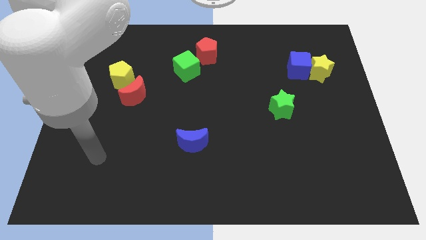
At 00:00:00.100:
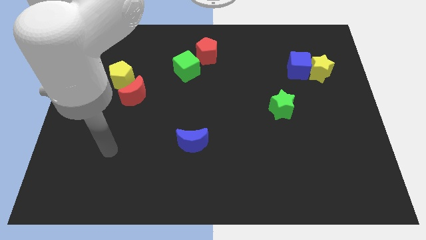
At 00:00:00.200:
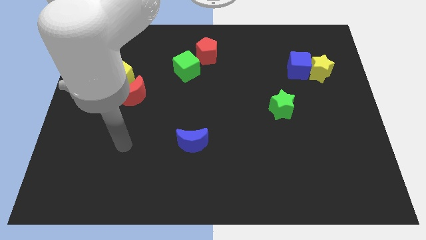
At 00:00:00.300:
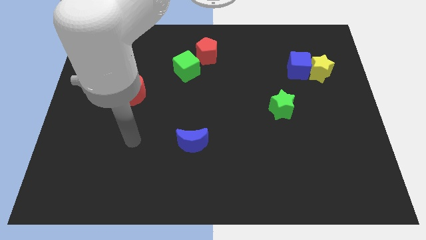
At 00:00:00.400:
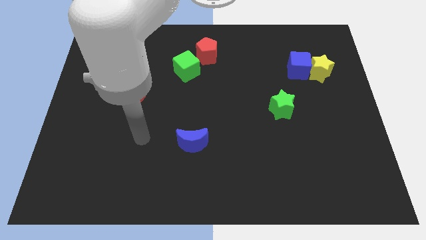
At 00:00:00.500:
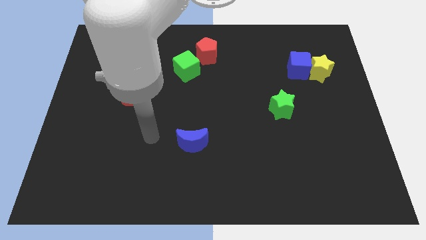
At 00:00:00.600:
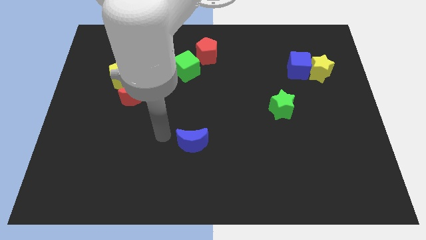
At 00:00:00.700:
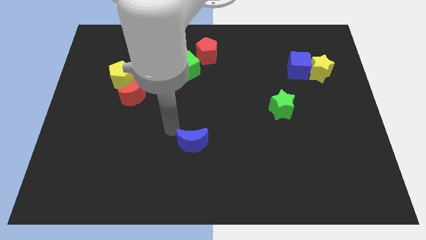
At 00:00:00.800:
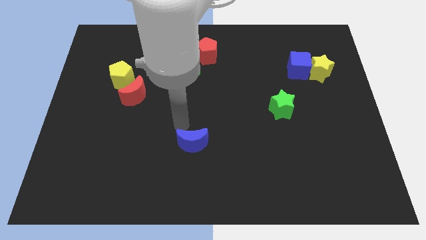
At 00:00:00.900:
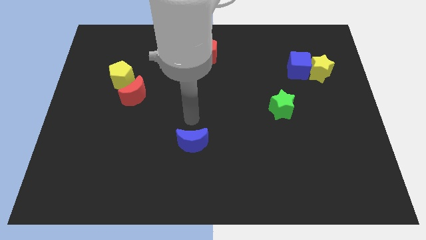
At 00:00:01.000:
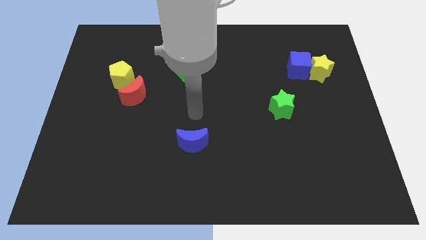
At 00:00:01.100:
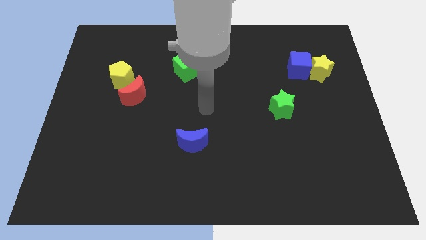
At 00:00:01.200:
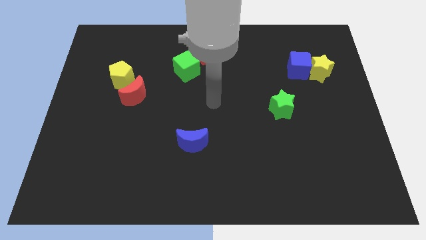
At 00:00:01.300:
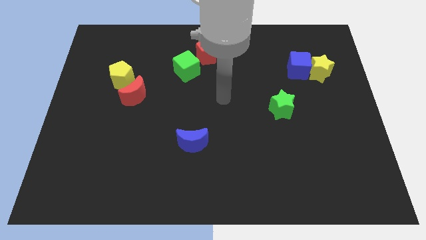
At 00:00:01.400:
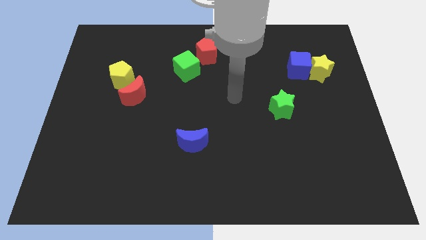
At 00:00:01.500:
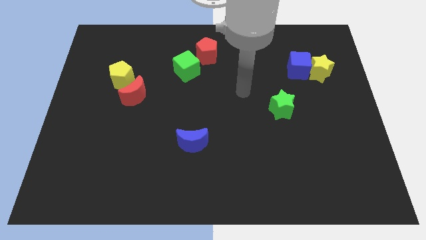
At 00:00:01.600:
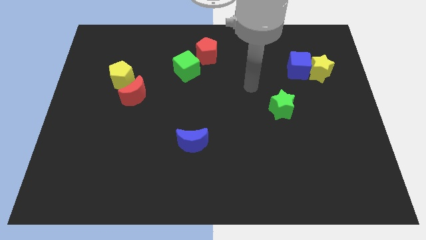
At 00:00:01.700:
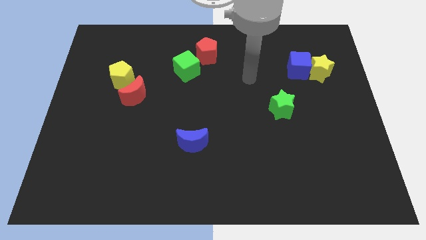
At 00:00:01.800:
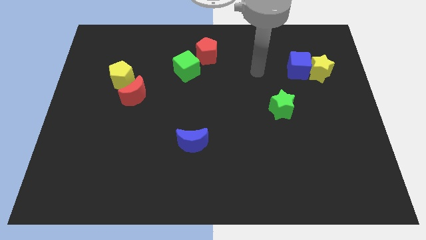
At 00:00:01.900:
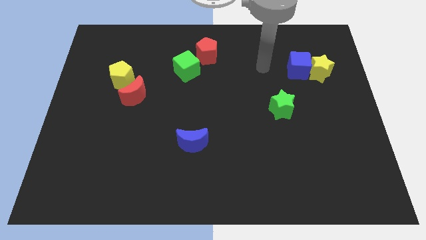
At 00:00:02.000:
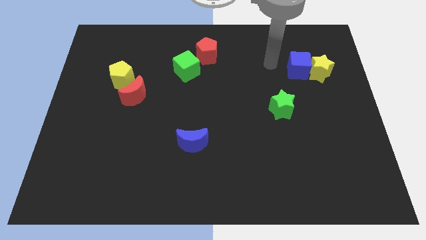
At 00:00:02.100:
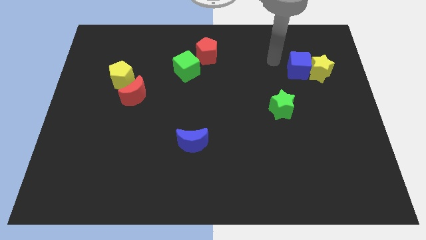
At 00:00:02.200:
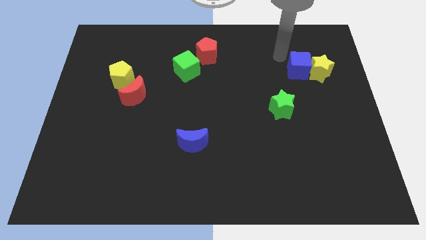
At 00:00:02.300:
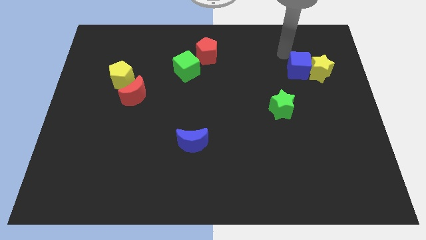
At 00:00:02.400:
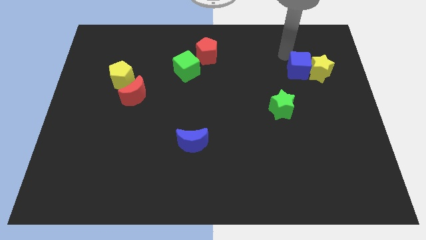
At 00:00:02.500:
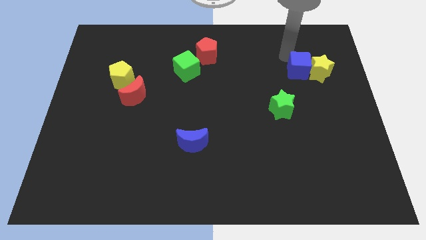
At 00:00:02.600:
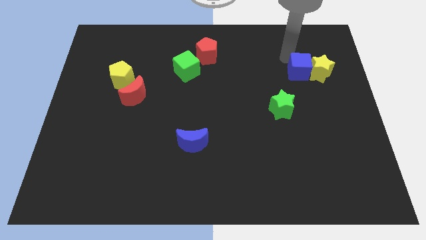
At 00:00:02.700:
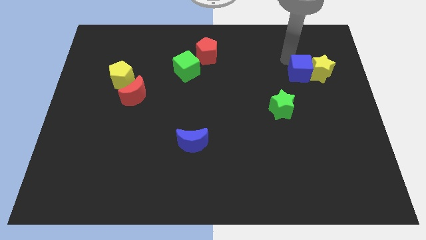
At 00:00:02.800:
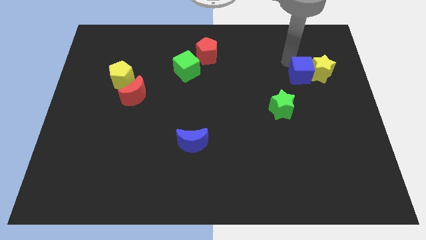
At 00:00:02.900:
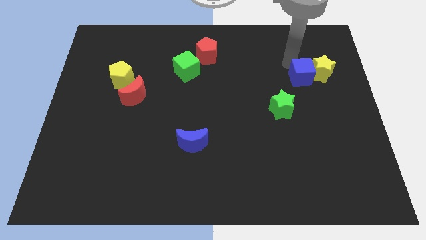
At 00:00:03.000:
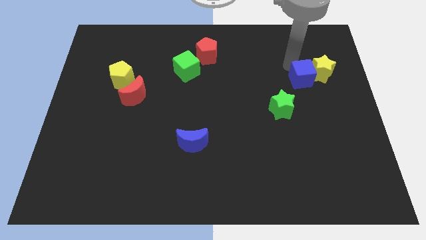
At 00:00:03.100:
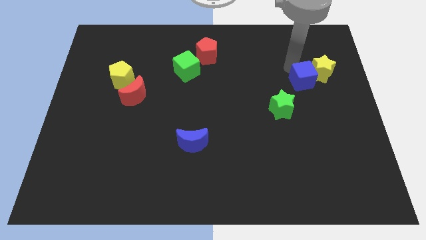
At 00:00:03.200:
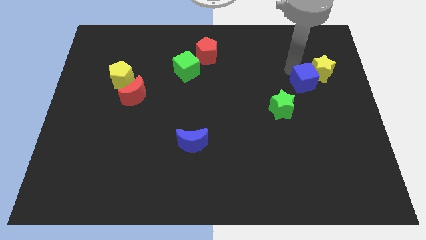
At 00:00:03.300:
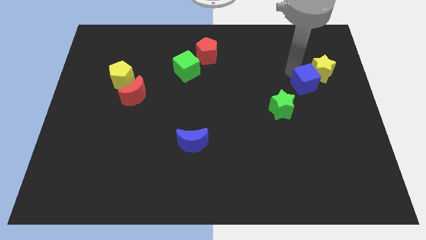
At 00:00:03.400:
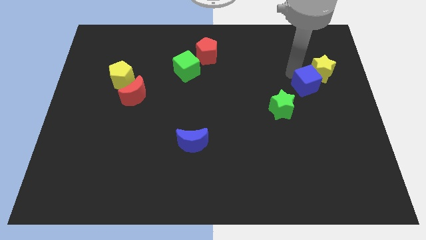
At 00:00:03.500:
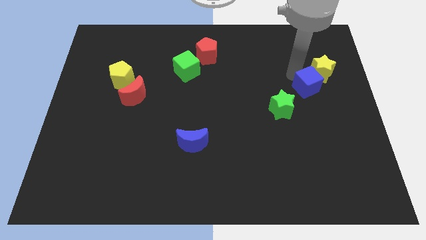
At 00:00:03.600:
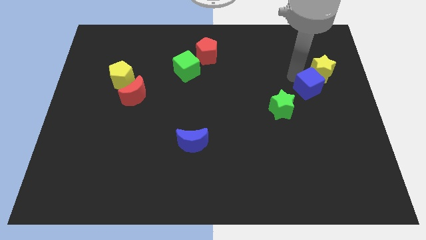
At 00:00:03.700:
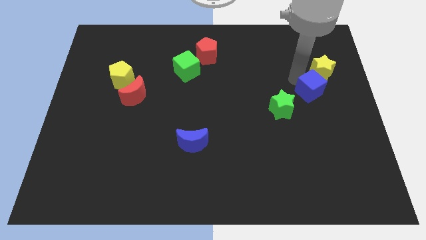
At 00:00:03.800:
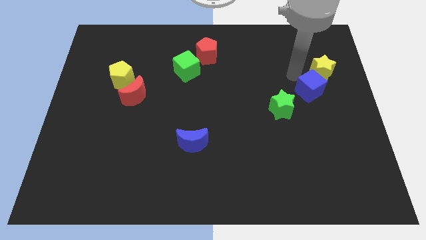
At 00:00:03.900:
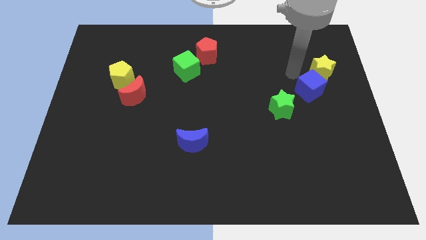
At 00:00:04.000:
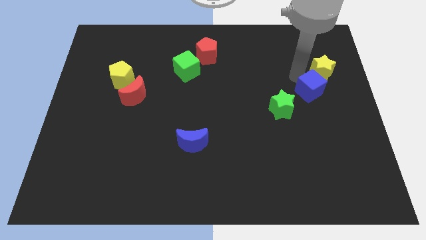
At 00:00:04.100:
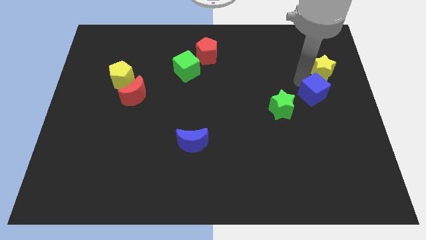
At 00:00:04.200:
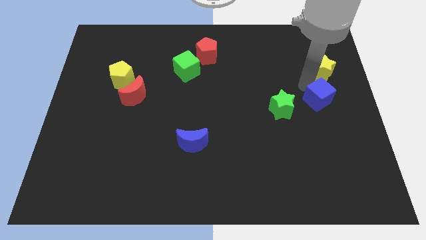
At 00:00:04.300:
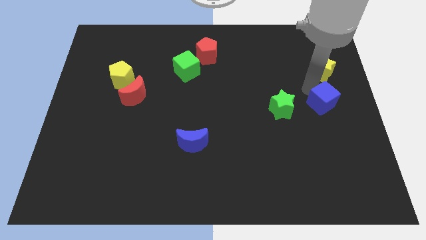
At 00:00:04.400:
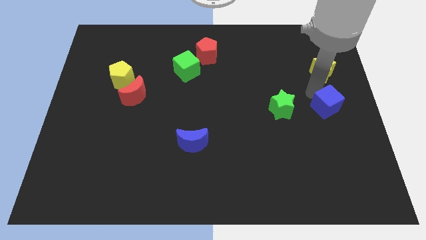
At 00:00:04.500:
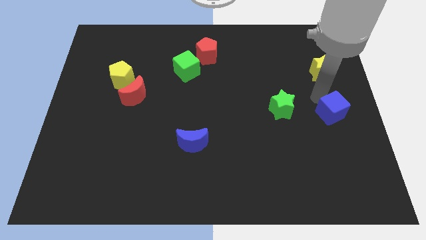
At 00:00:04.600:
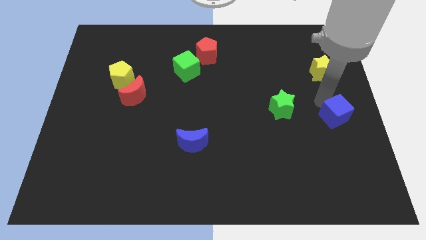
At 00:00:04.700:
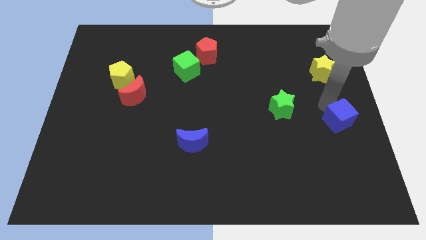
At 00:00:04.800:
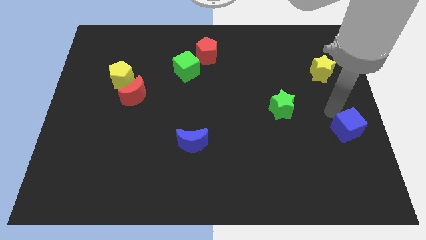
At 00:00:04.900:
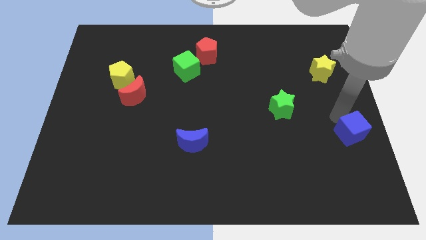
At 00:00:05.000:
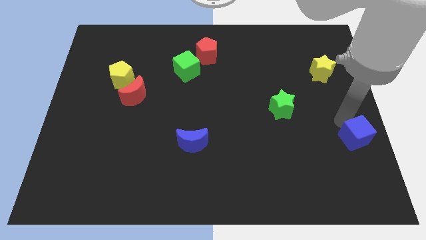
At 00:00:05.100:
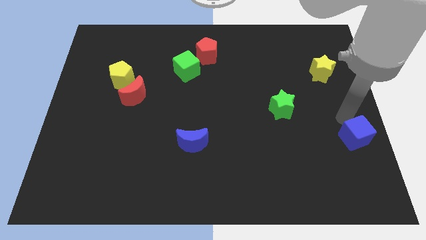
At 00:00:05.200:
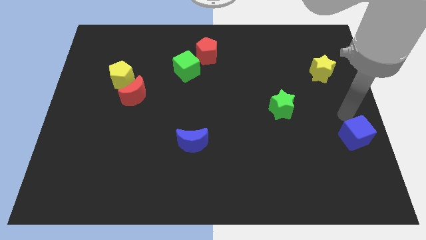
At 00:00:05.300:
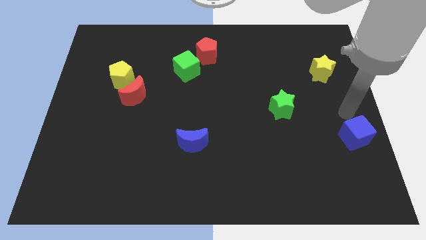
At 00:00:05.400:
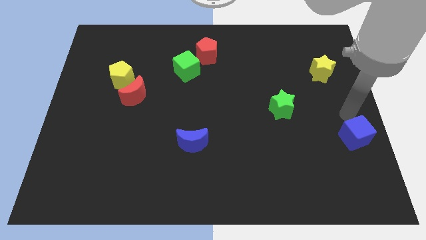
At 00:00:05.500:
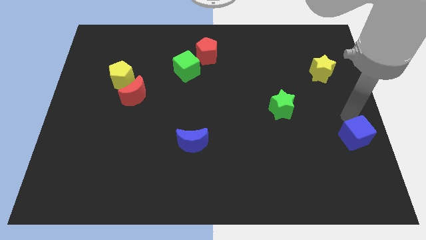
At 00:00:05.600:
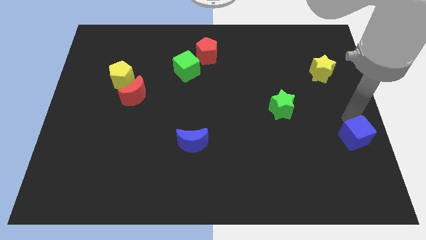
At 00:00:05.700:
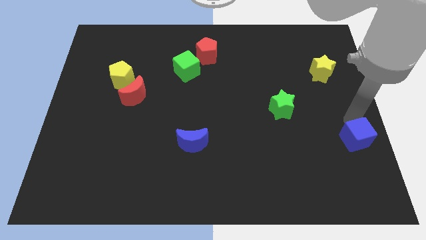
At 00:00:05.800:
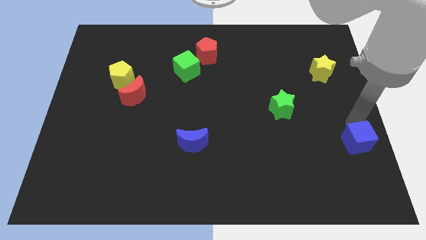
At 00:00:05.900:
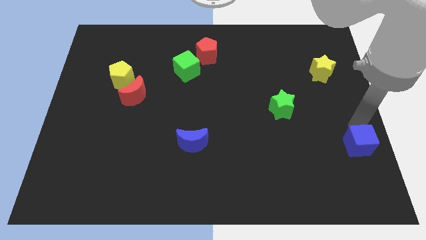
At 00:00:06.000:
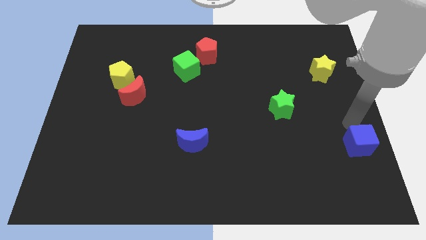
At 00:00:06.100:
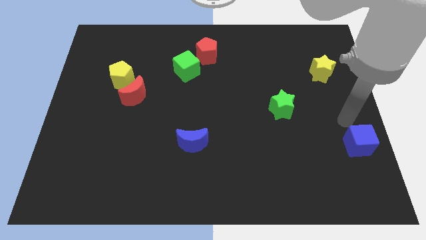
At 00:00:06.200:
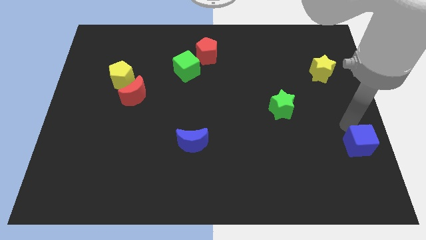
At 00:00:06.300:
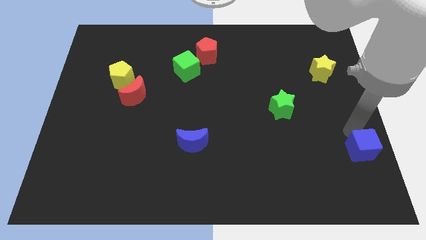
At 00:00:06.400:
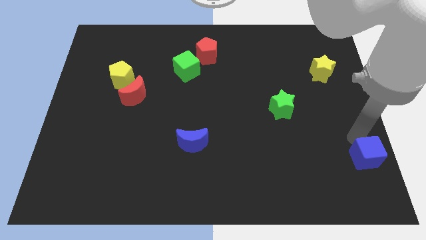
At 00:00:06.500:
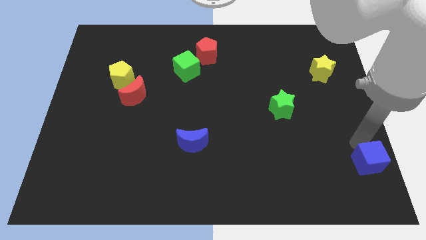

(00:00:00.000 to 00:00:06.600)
put the blue cube to the bottom right of the board

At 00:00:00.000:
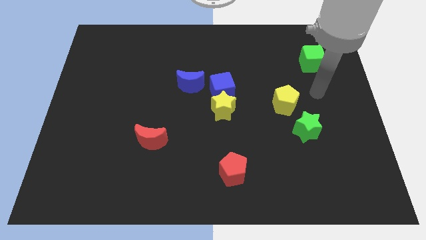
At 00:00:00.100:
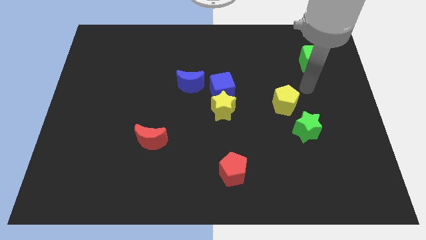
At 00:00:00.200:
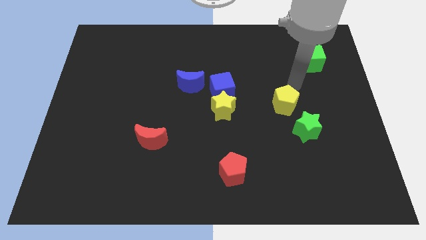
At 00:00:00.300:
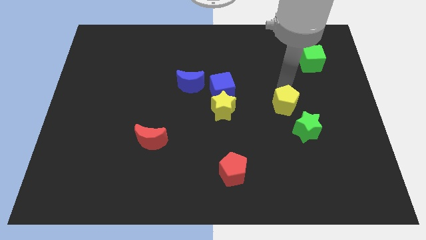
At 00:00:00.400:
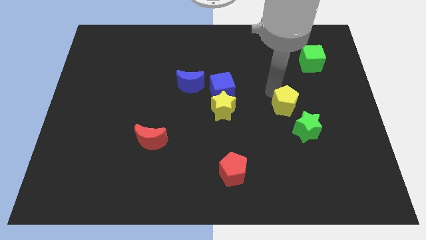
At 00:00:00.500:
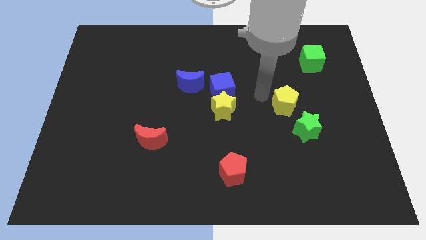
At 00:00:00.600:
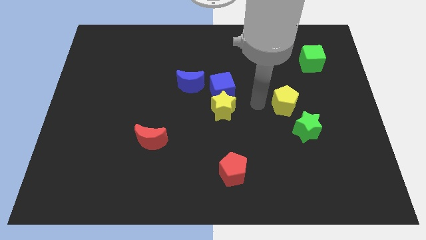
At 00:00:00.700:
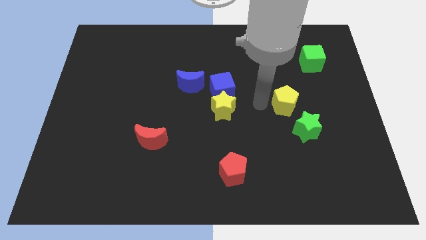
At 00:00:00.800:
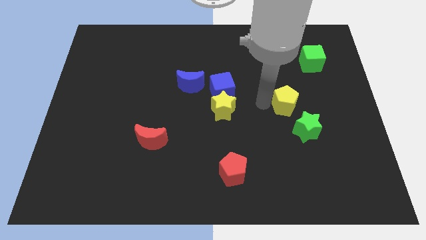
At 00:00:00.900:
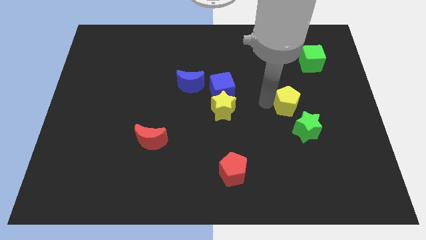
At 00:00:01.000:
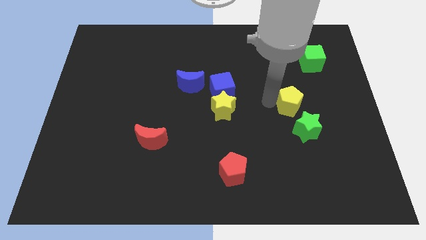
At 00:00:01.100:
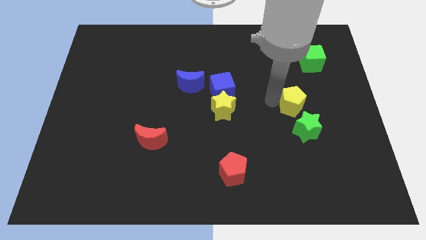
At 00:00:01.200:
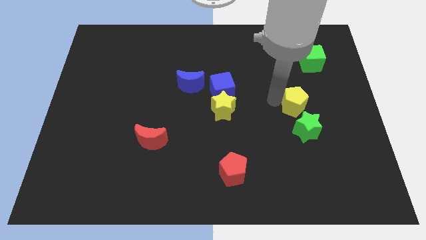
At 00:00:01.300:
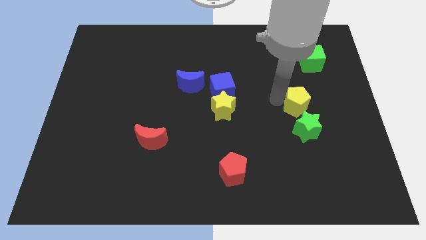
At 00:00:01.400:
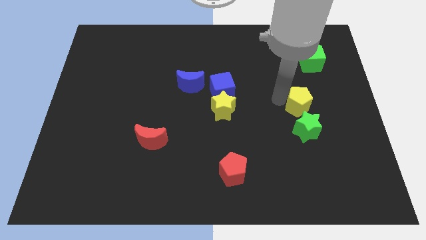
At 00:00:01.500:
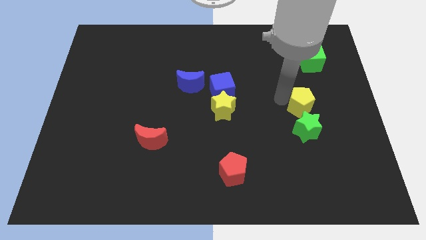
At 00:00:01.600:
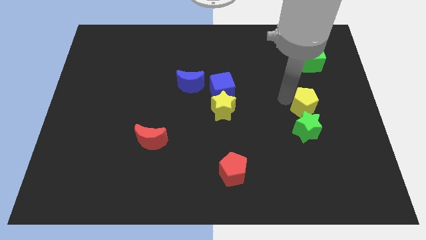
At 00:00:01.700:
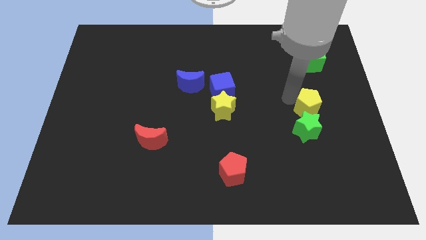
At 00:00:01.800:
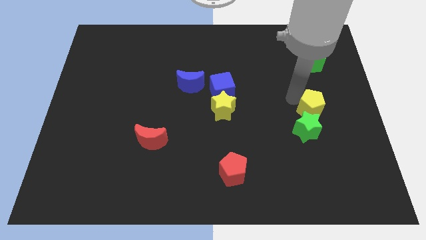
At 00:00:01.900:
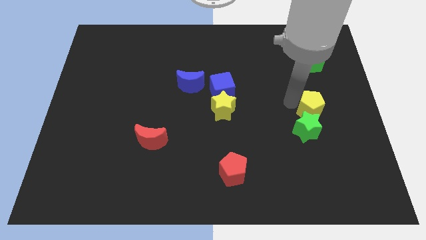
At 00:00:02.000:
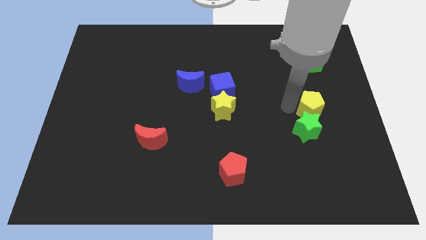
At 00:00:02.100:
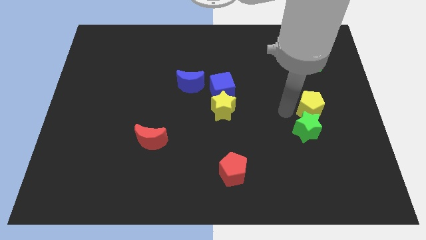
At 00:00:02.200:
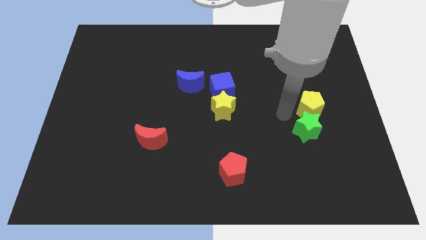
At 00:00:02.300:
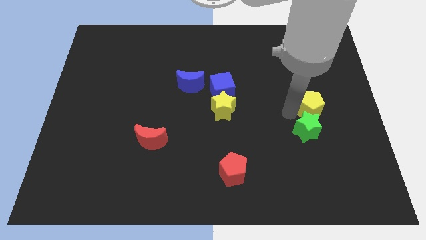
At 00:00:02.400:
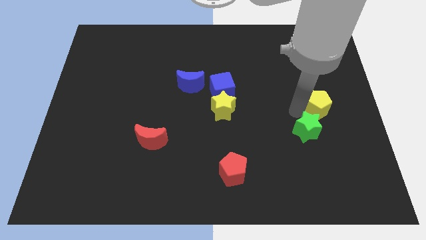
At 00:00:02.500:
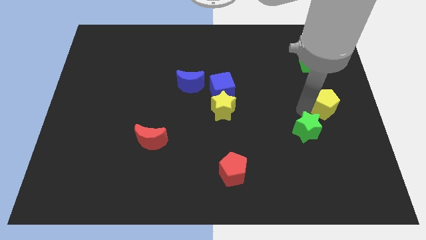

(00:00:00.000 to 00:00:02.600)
push the yellow pentagon to the right side
